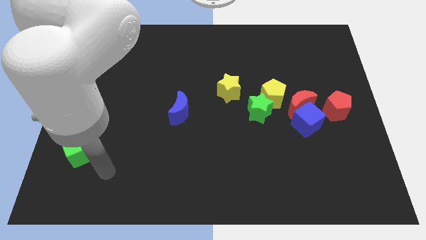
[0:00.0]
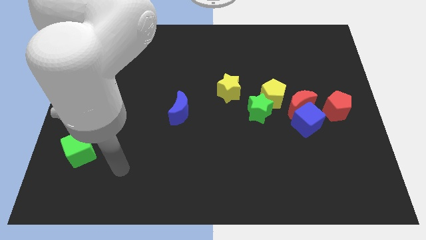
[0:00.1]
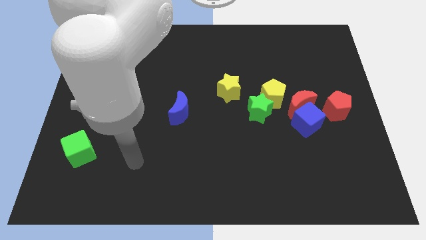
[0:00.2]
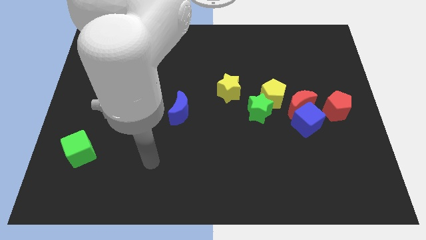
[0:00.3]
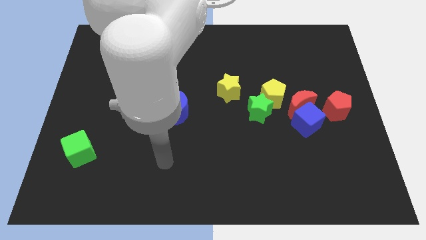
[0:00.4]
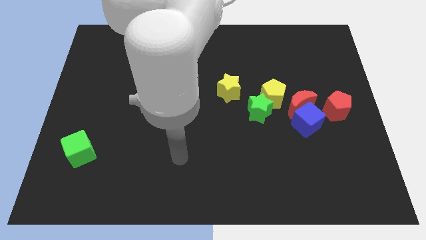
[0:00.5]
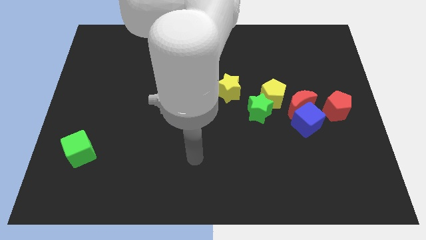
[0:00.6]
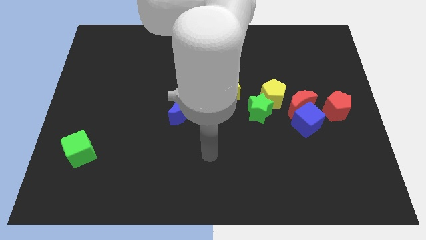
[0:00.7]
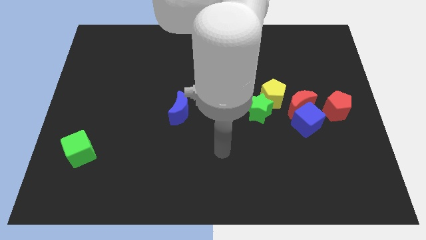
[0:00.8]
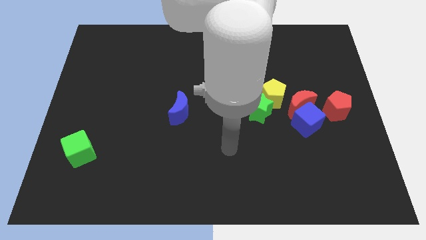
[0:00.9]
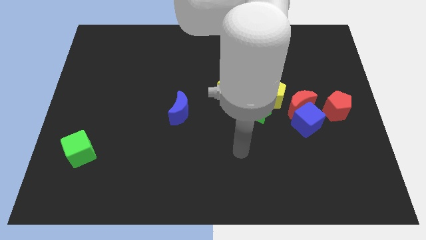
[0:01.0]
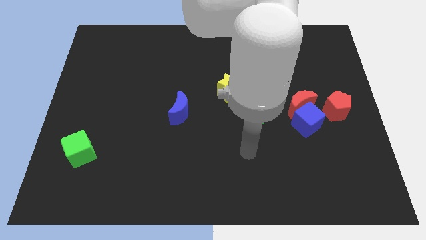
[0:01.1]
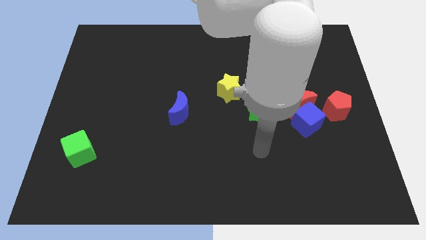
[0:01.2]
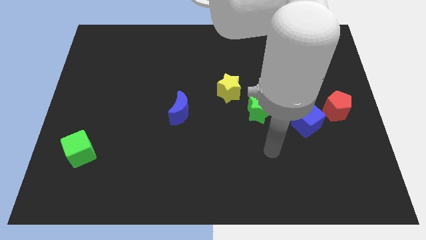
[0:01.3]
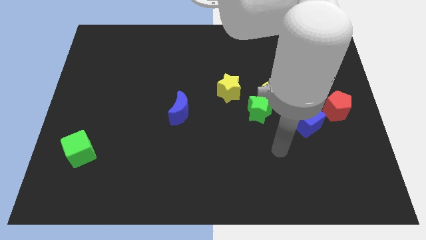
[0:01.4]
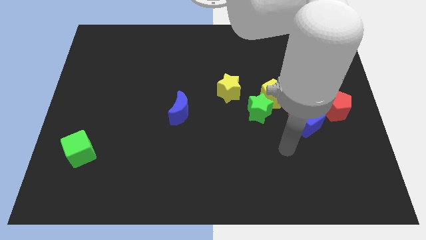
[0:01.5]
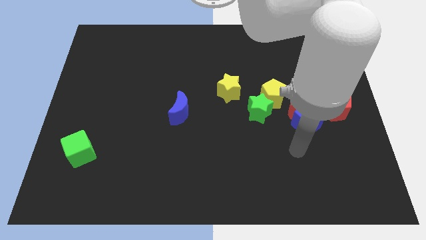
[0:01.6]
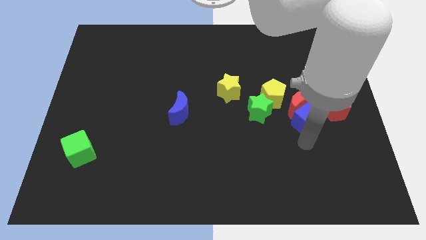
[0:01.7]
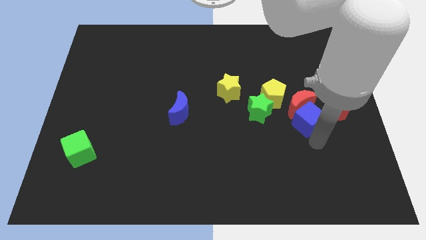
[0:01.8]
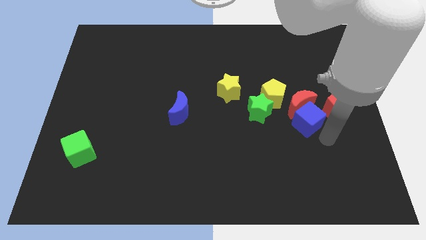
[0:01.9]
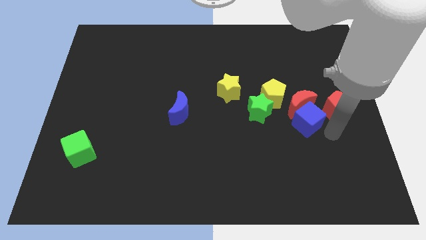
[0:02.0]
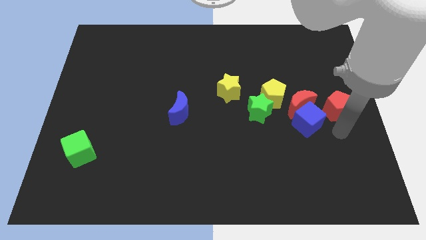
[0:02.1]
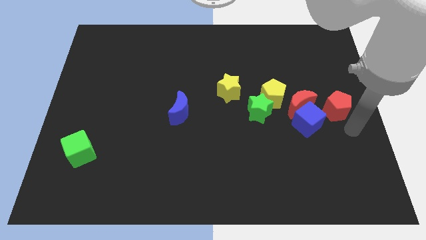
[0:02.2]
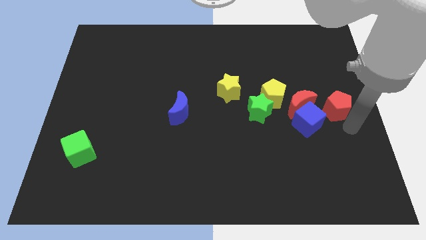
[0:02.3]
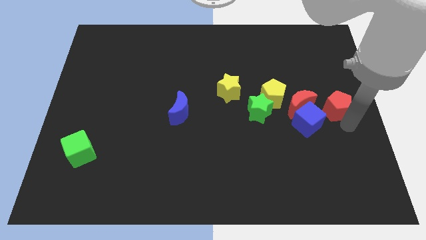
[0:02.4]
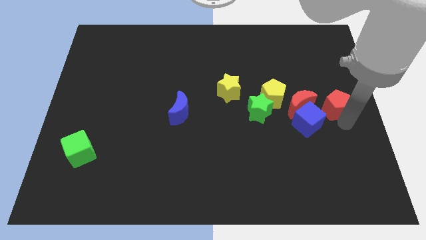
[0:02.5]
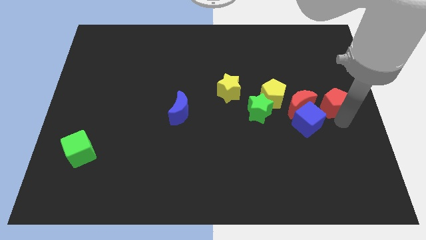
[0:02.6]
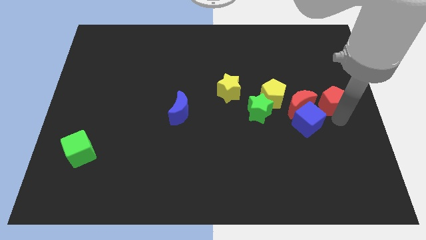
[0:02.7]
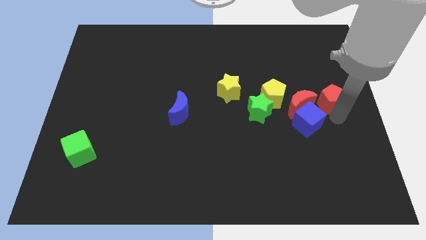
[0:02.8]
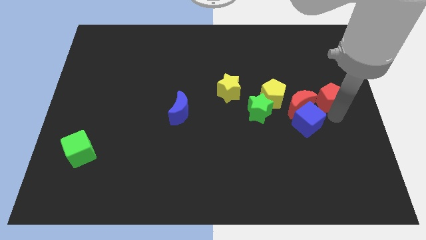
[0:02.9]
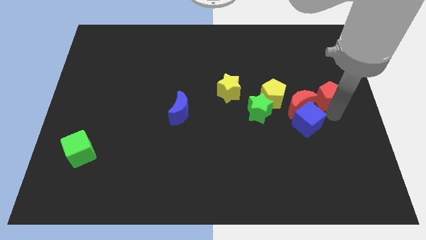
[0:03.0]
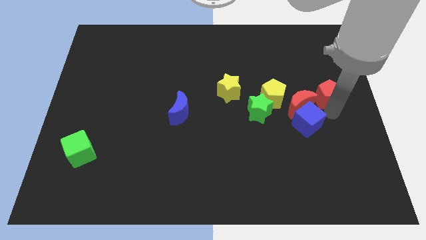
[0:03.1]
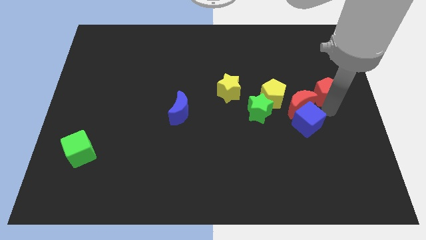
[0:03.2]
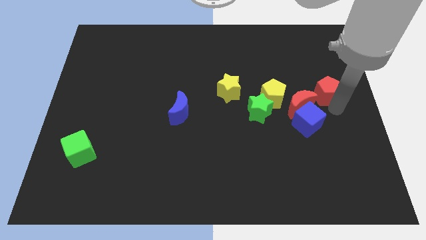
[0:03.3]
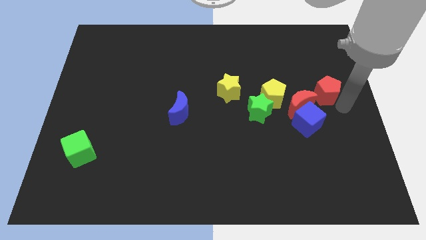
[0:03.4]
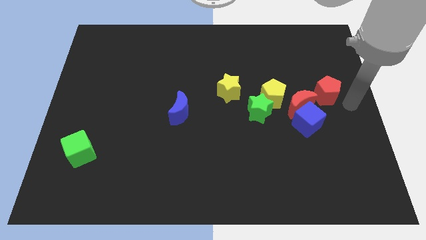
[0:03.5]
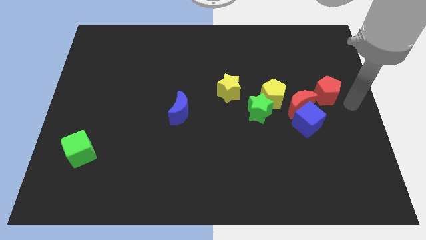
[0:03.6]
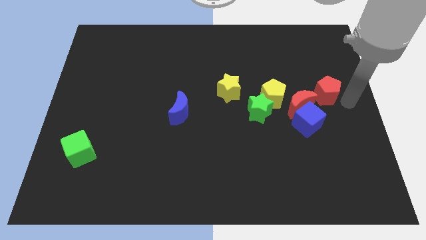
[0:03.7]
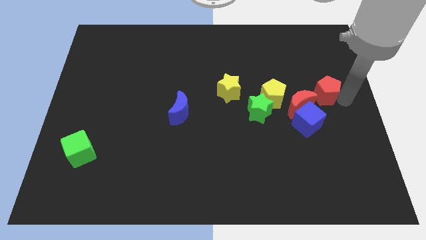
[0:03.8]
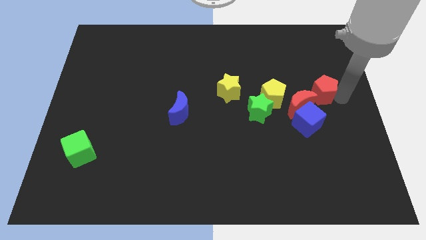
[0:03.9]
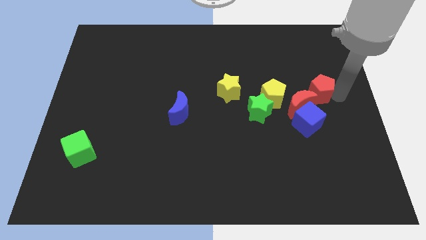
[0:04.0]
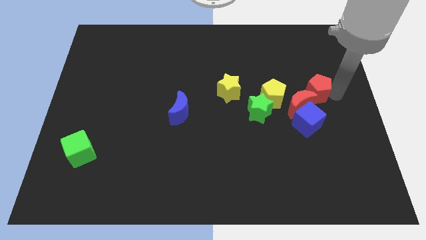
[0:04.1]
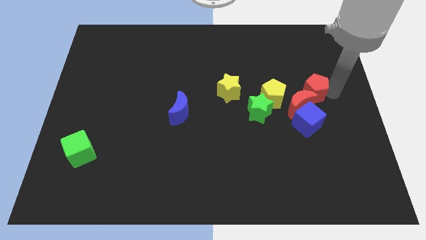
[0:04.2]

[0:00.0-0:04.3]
move the red pentagon somewhat upwards and left diagonally

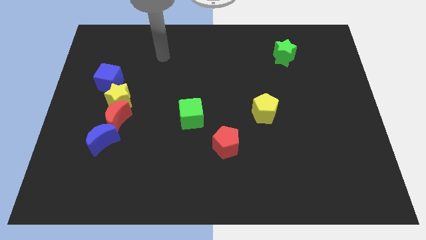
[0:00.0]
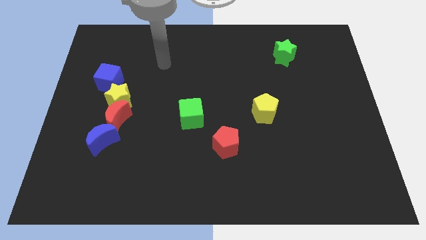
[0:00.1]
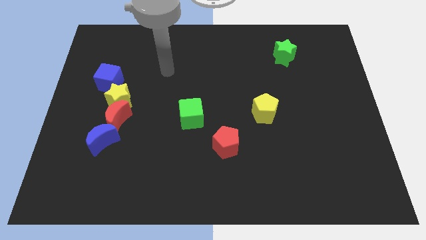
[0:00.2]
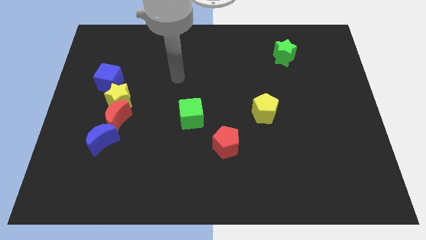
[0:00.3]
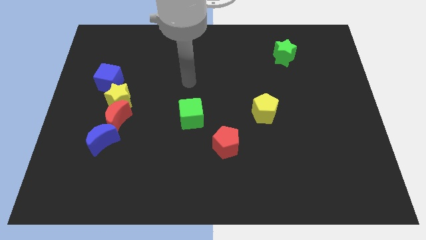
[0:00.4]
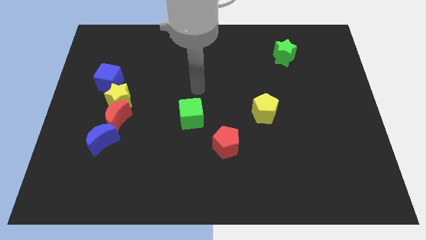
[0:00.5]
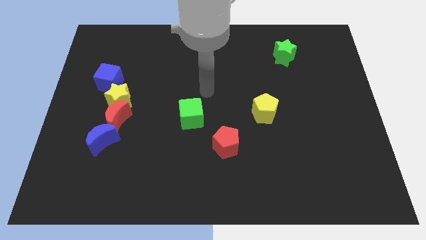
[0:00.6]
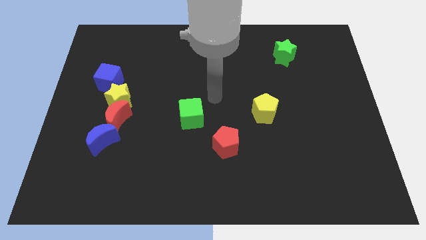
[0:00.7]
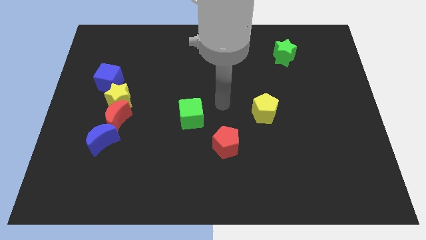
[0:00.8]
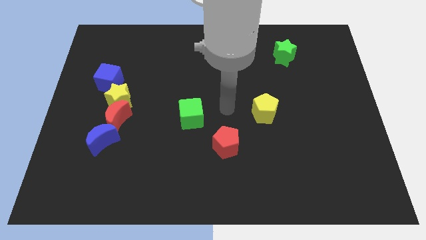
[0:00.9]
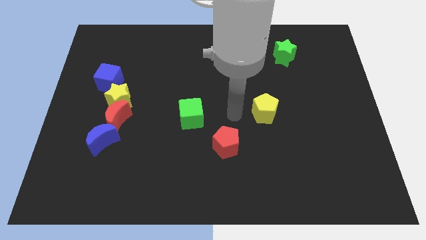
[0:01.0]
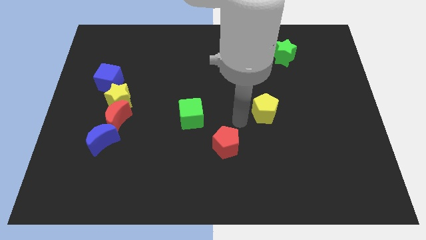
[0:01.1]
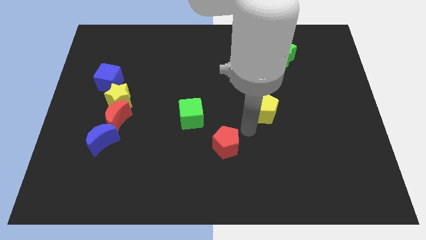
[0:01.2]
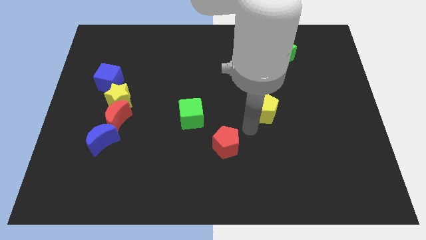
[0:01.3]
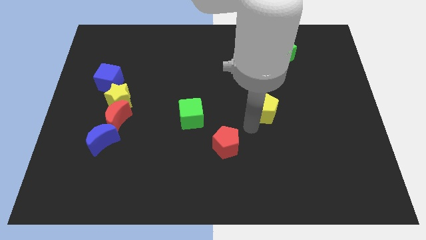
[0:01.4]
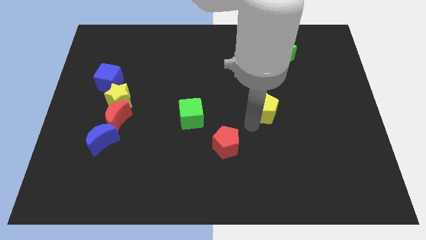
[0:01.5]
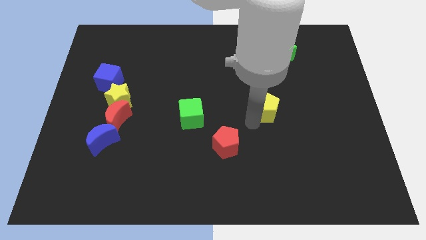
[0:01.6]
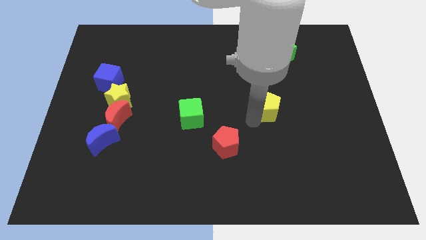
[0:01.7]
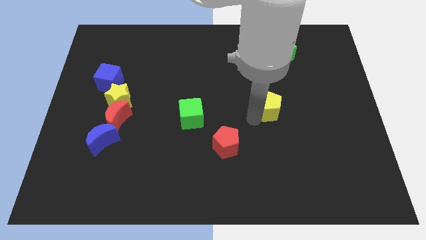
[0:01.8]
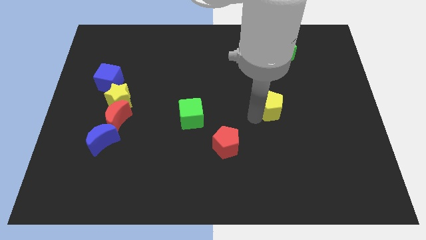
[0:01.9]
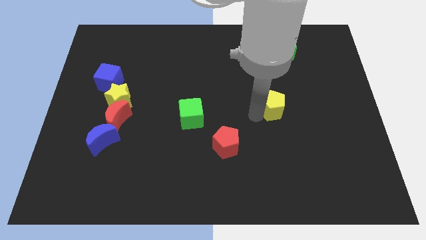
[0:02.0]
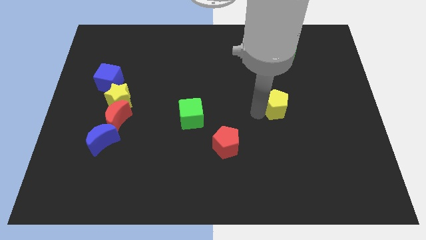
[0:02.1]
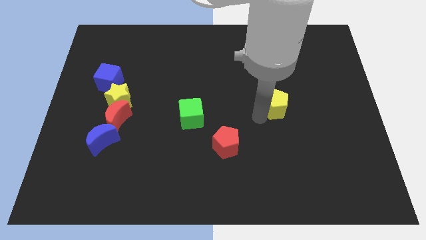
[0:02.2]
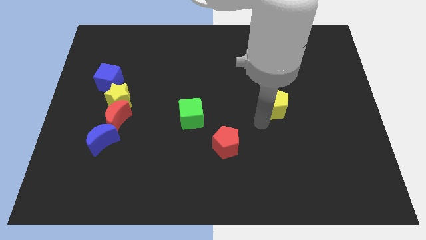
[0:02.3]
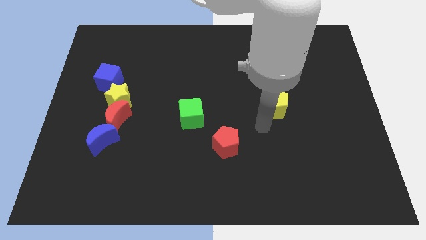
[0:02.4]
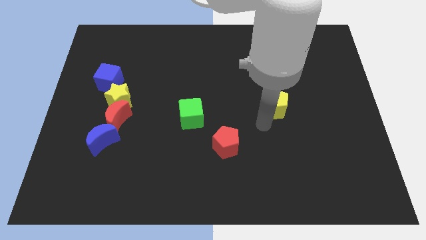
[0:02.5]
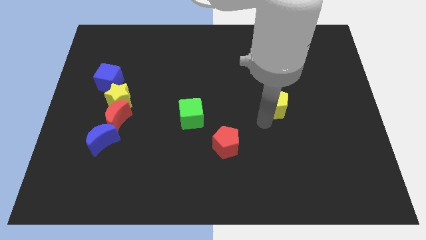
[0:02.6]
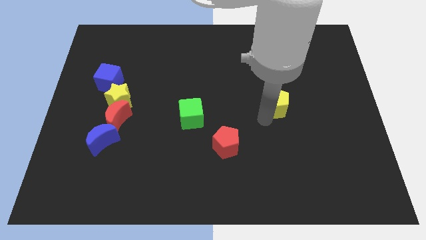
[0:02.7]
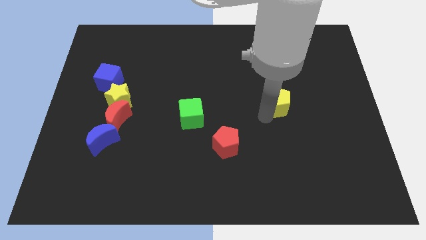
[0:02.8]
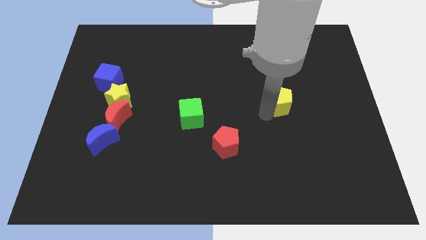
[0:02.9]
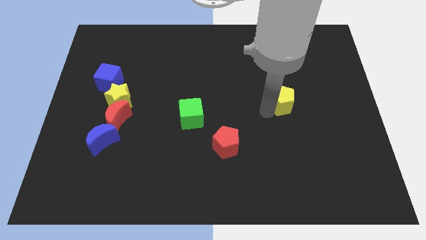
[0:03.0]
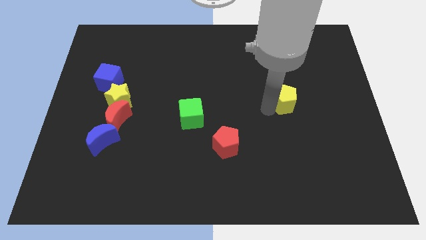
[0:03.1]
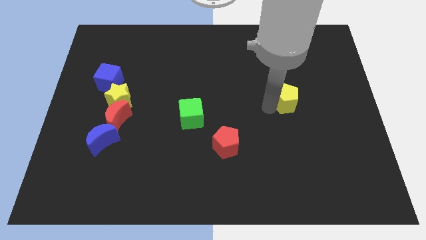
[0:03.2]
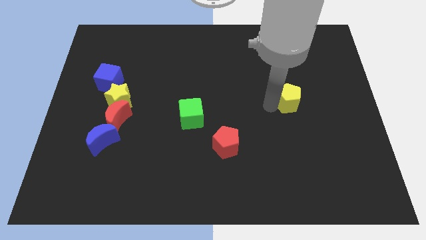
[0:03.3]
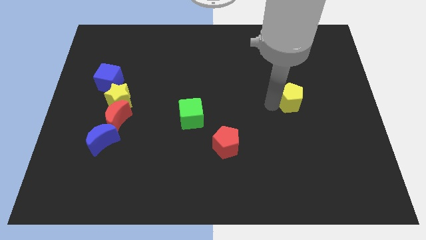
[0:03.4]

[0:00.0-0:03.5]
move the yellow pentagon a little upwards and then to the right
